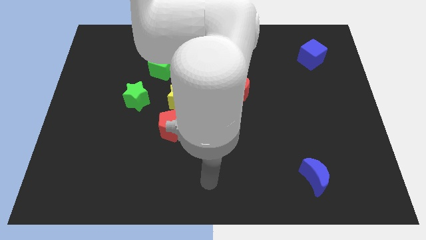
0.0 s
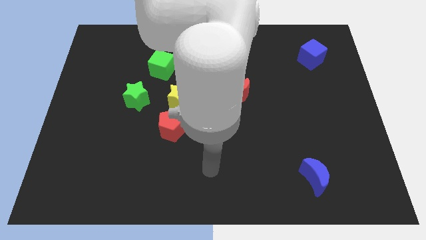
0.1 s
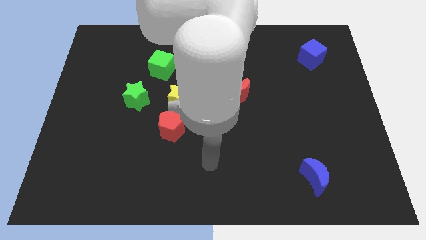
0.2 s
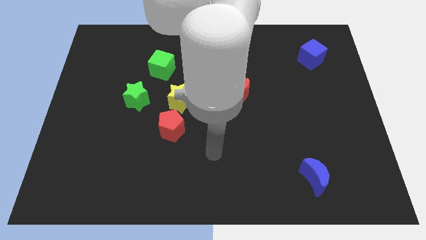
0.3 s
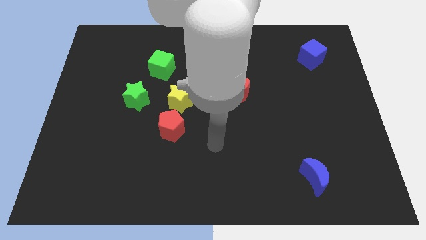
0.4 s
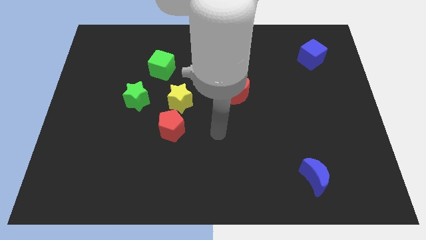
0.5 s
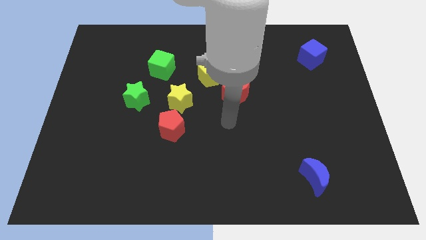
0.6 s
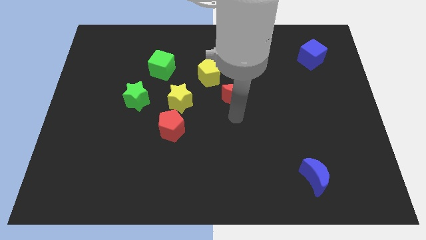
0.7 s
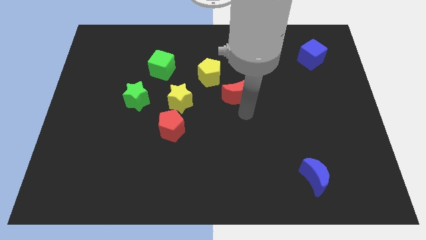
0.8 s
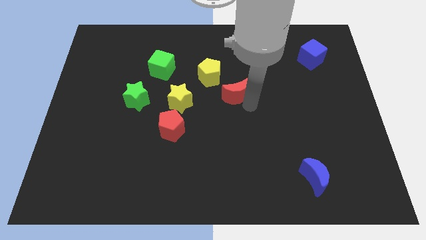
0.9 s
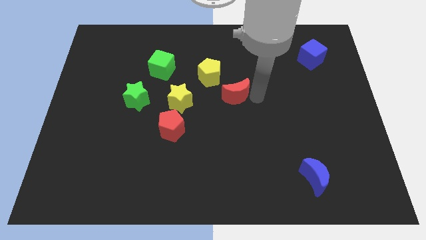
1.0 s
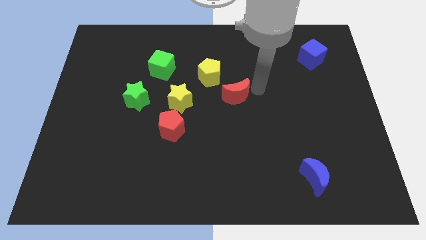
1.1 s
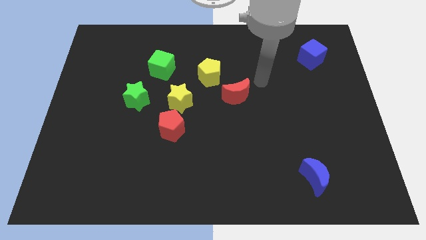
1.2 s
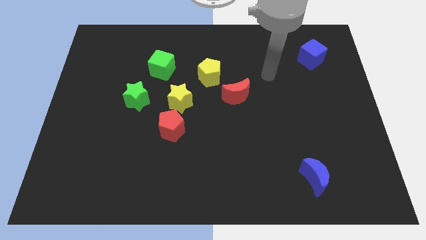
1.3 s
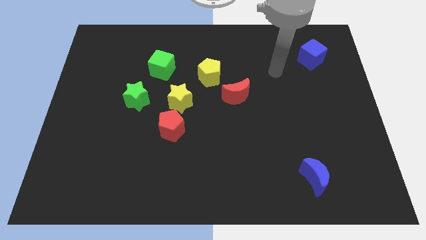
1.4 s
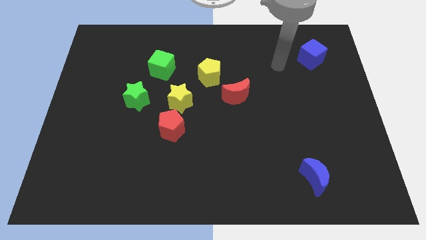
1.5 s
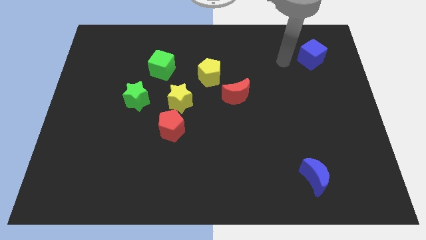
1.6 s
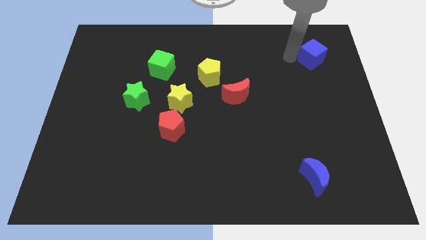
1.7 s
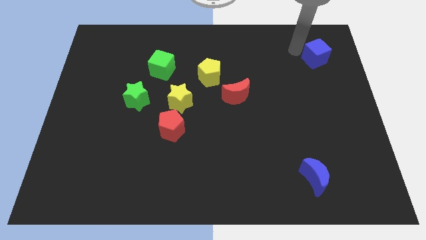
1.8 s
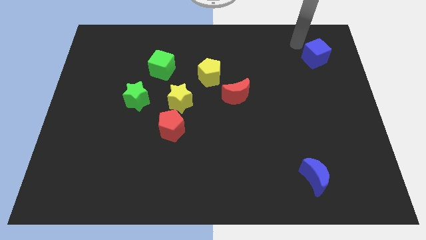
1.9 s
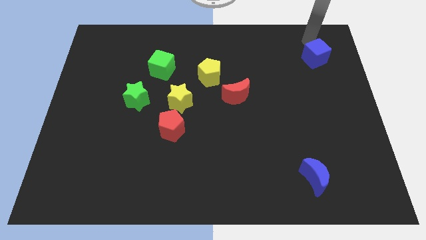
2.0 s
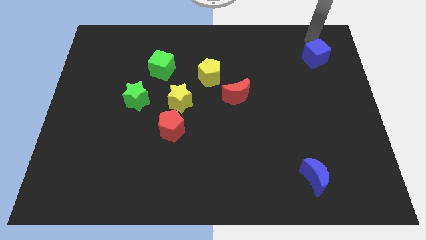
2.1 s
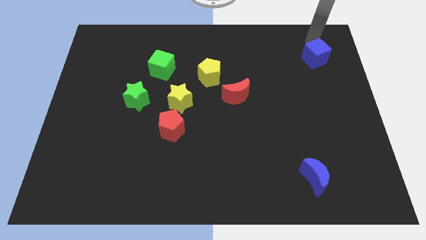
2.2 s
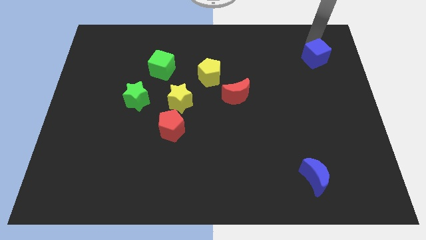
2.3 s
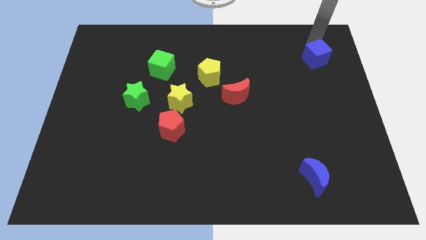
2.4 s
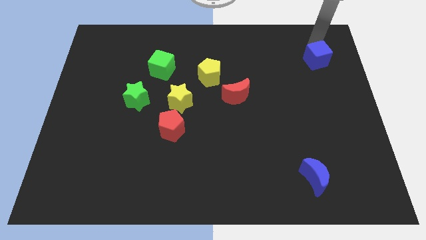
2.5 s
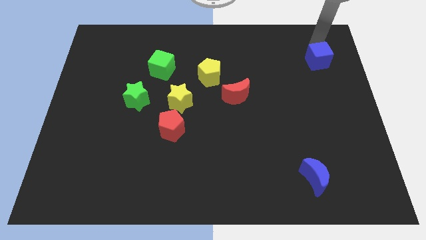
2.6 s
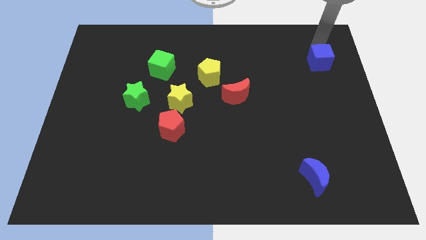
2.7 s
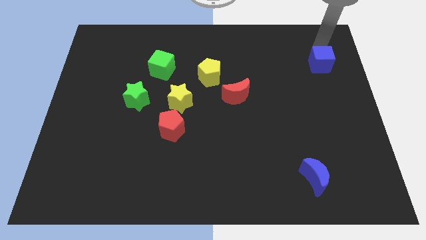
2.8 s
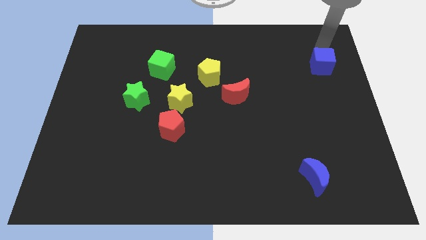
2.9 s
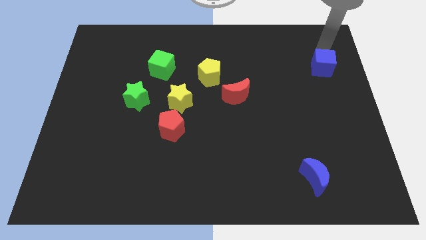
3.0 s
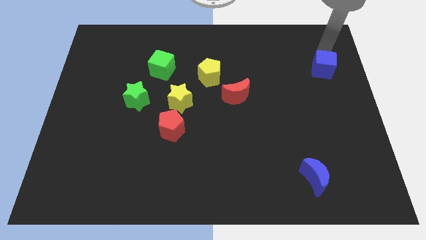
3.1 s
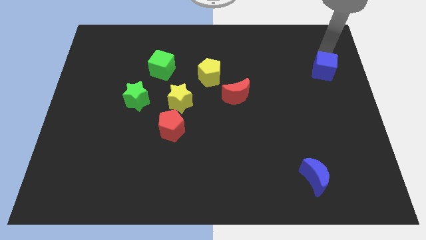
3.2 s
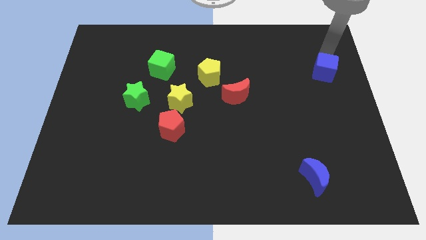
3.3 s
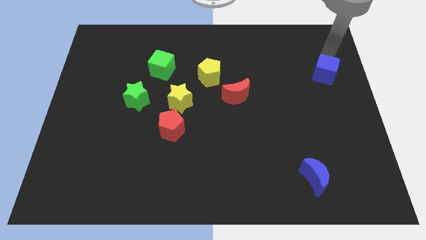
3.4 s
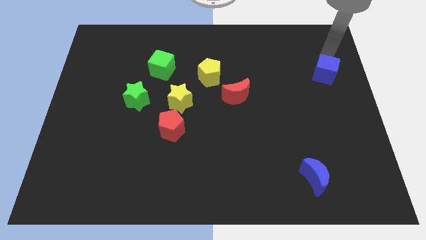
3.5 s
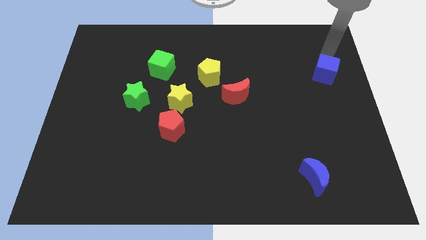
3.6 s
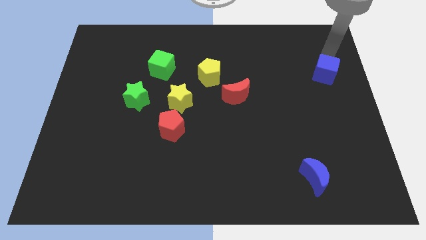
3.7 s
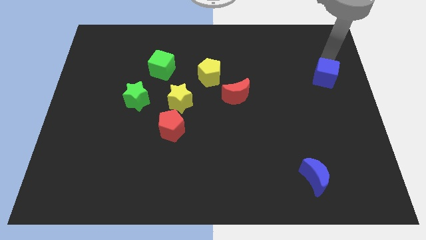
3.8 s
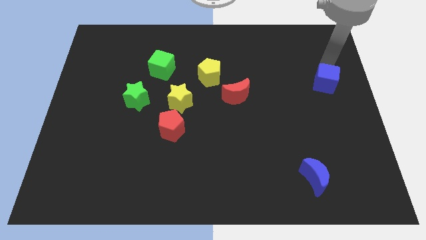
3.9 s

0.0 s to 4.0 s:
move the blue cube downwards slightly

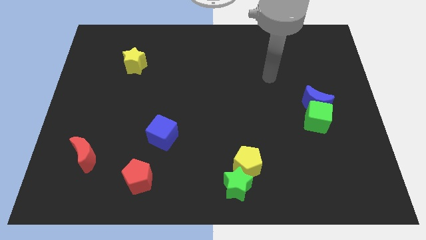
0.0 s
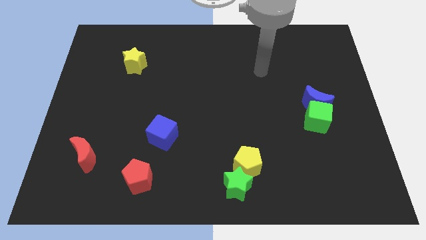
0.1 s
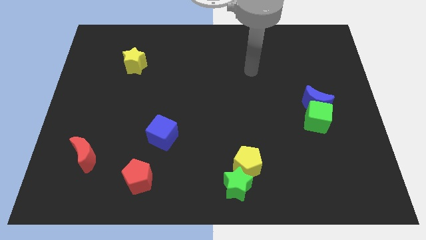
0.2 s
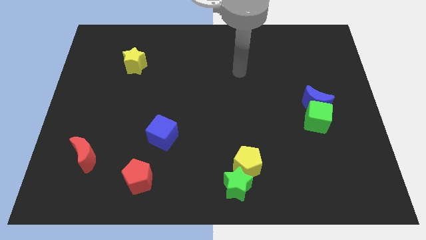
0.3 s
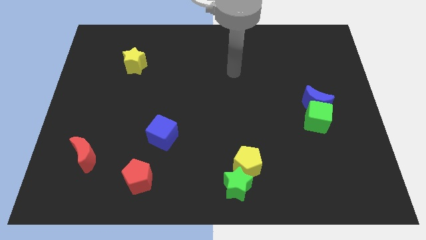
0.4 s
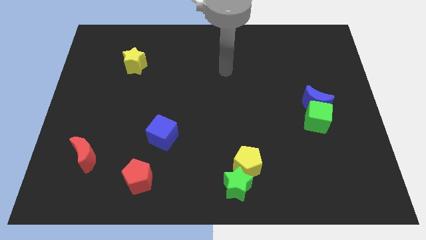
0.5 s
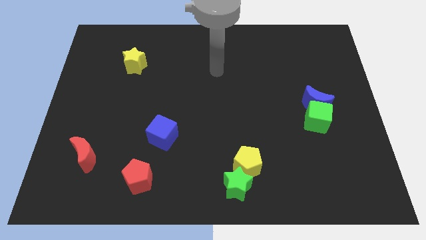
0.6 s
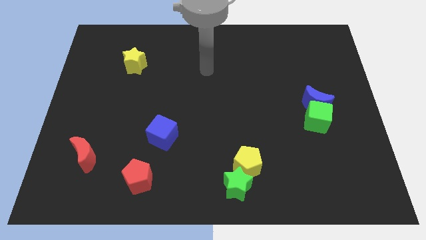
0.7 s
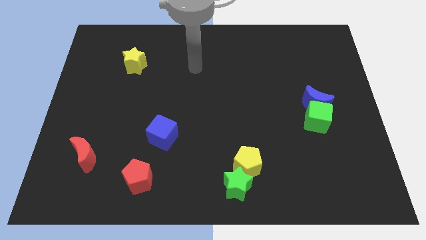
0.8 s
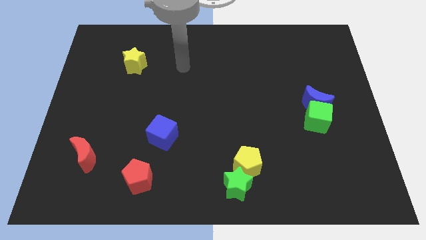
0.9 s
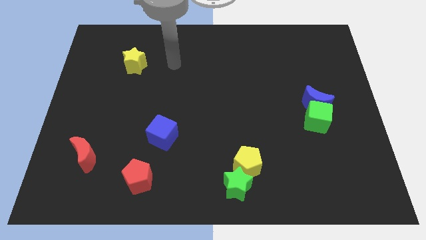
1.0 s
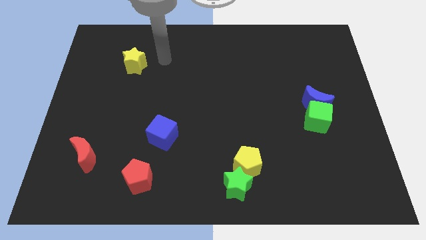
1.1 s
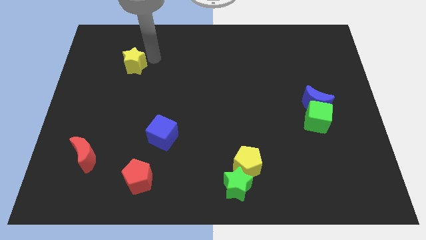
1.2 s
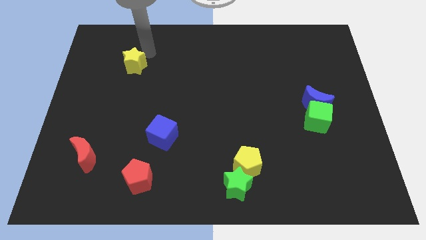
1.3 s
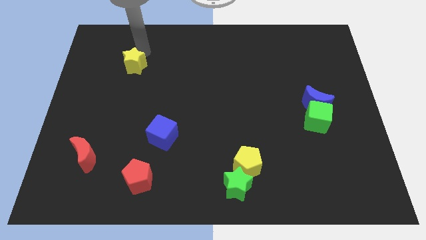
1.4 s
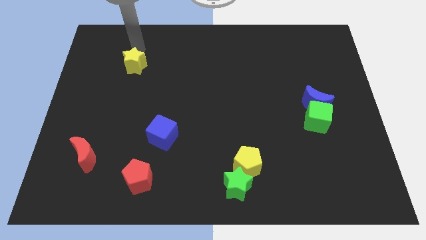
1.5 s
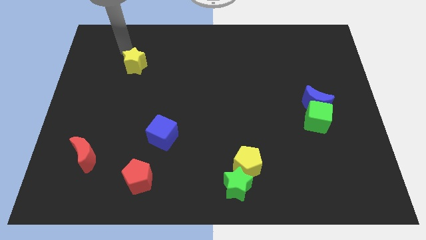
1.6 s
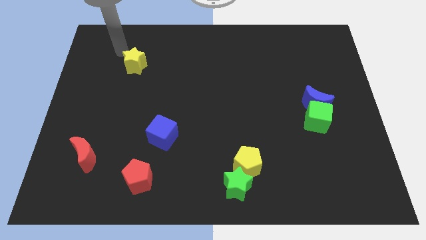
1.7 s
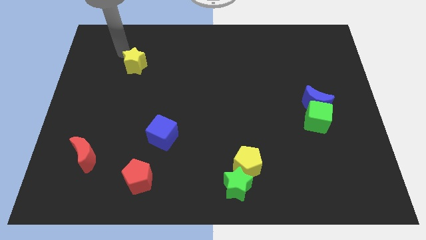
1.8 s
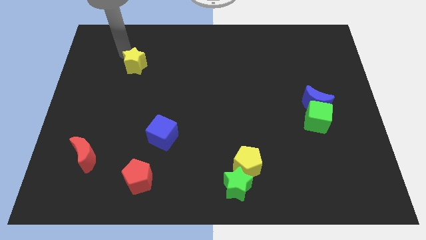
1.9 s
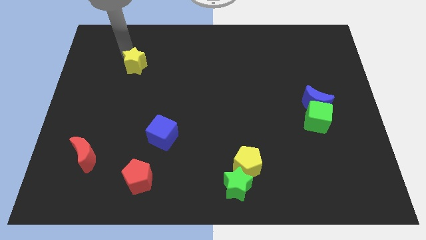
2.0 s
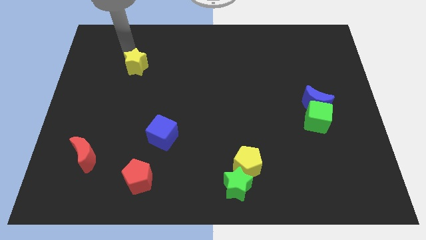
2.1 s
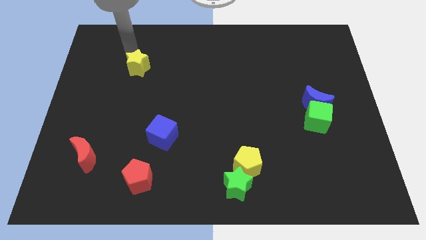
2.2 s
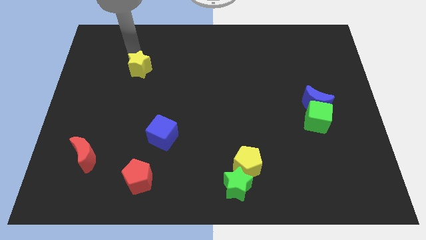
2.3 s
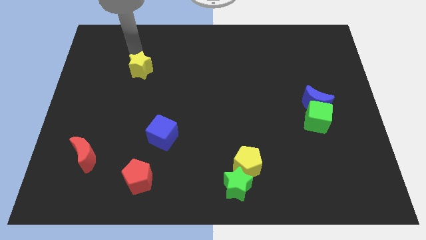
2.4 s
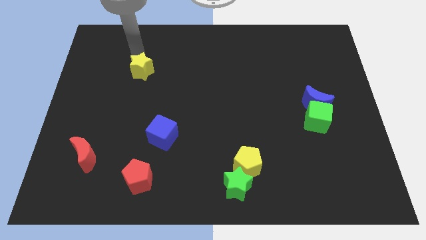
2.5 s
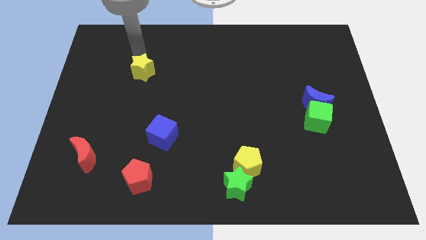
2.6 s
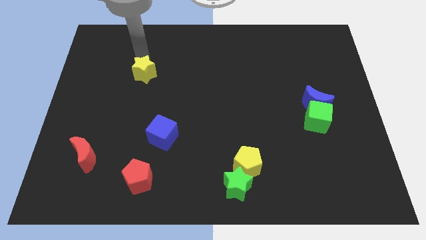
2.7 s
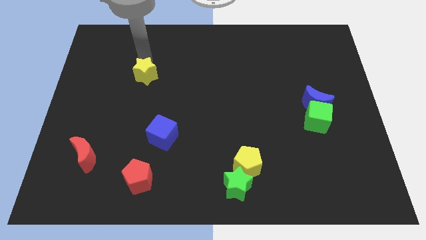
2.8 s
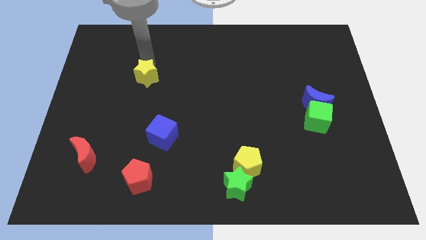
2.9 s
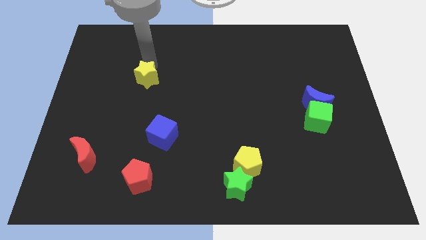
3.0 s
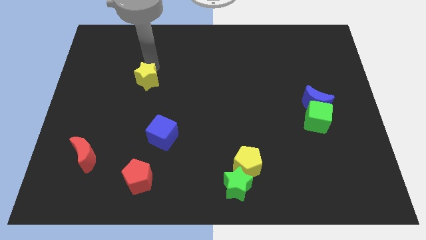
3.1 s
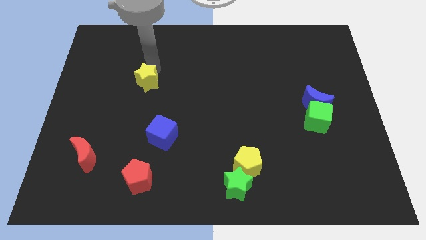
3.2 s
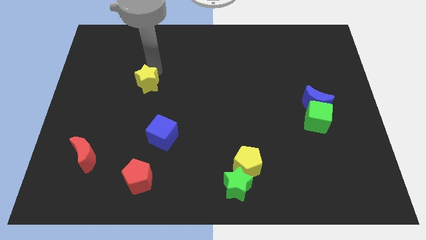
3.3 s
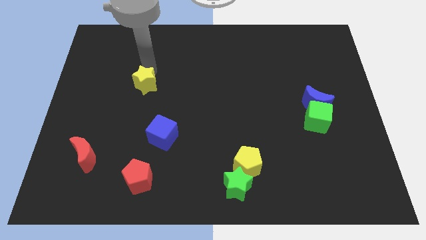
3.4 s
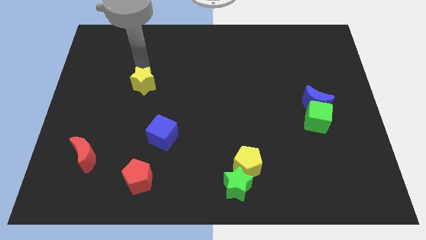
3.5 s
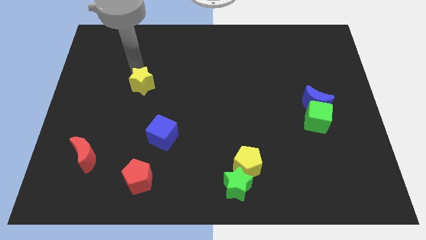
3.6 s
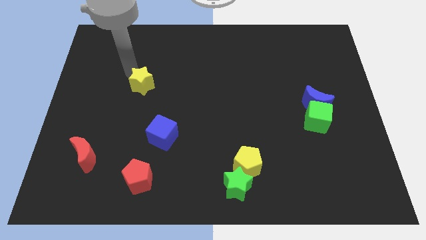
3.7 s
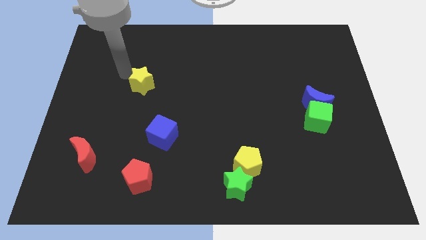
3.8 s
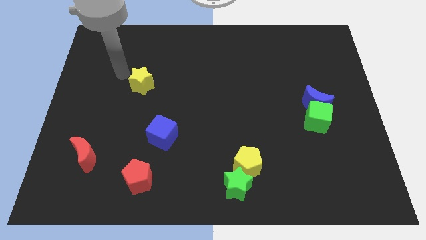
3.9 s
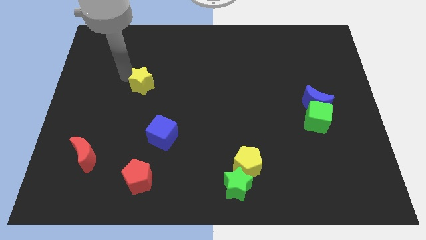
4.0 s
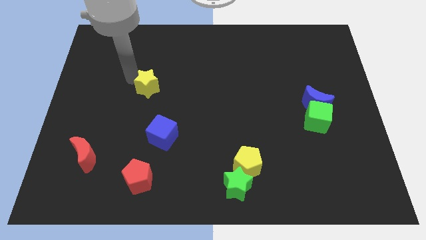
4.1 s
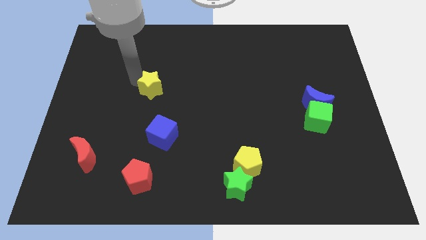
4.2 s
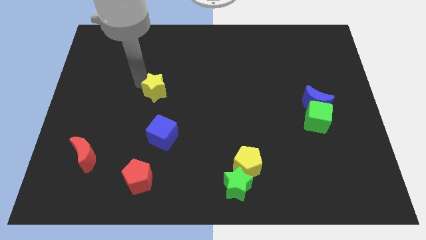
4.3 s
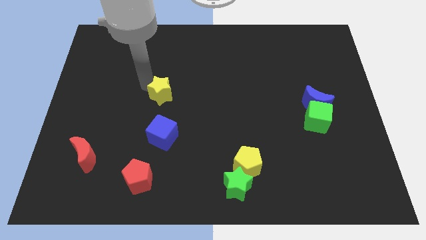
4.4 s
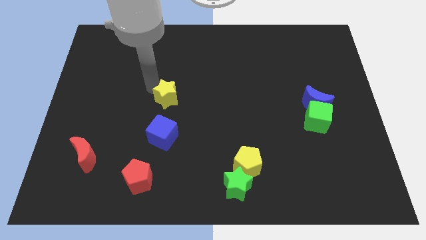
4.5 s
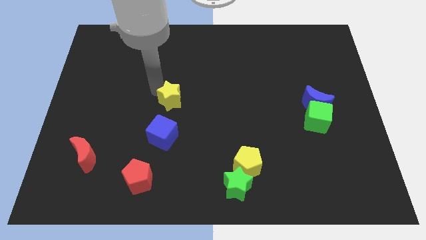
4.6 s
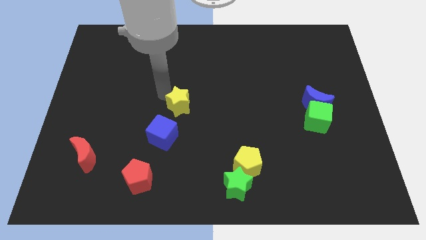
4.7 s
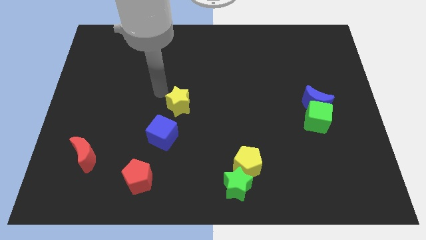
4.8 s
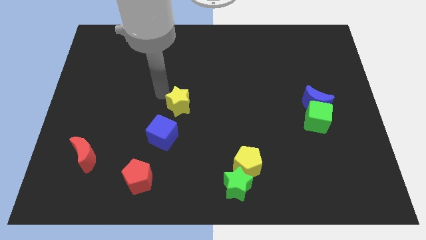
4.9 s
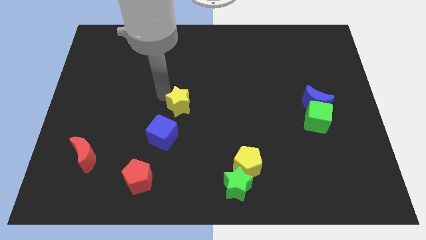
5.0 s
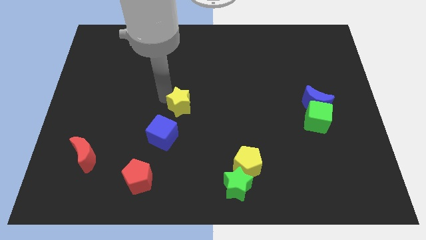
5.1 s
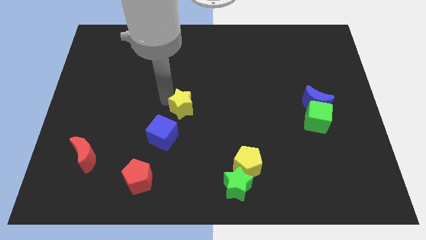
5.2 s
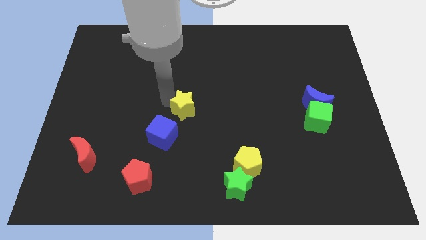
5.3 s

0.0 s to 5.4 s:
slide the yellow star downwards and to the right diagonally
